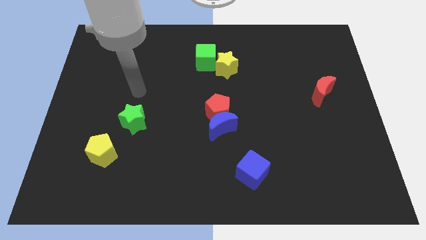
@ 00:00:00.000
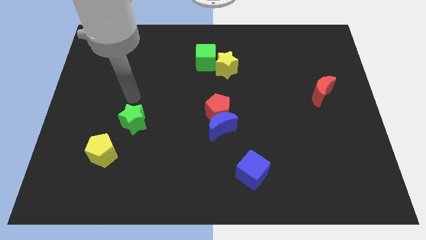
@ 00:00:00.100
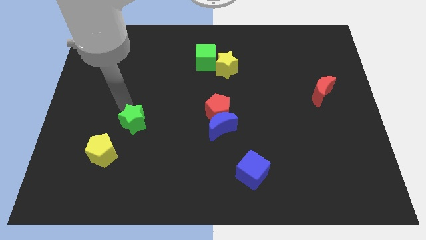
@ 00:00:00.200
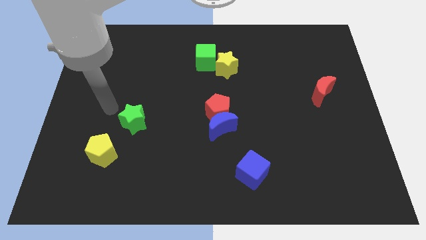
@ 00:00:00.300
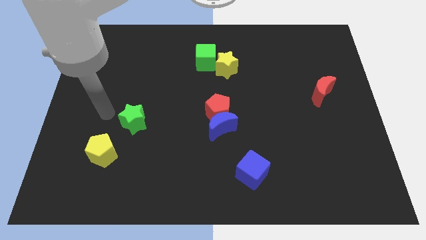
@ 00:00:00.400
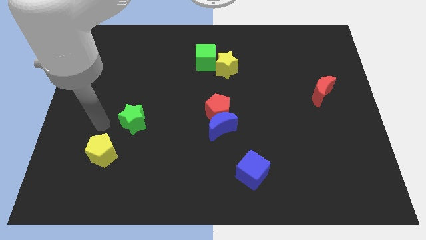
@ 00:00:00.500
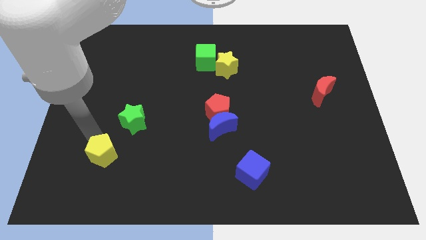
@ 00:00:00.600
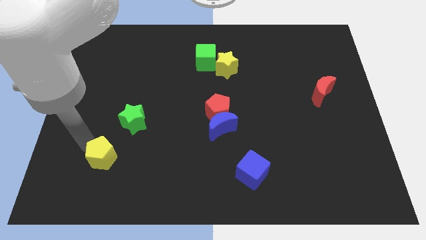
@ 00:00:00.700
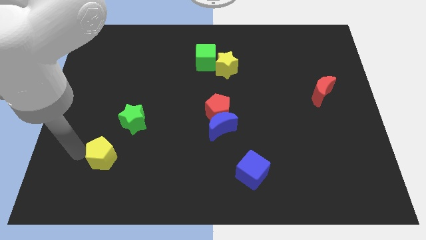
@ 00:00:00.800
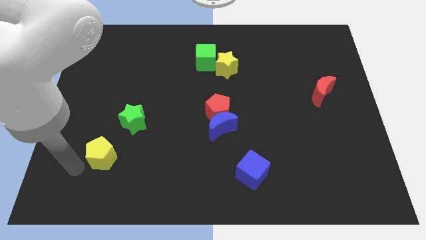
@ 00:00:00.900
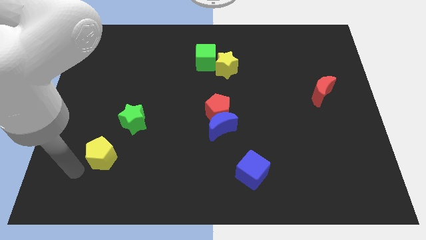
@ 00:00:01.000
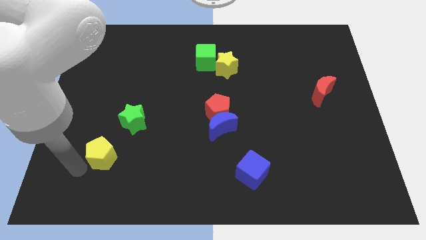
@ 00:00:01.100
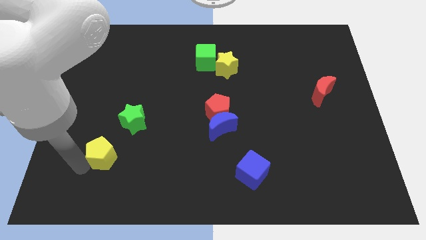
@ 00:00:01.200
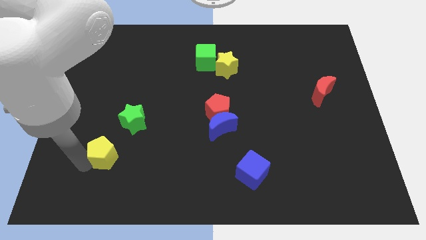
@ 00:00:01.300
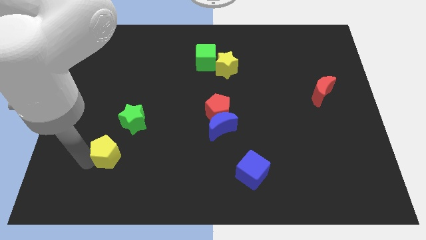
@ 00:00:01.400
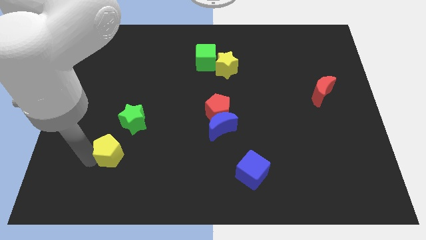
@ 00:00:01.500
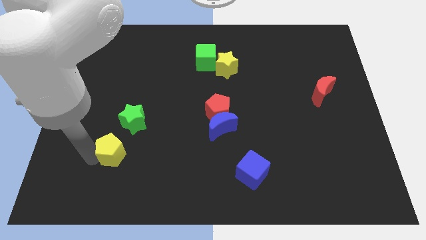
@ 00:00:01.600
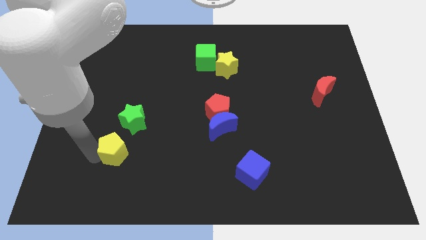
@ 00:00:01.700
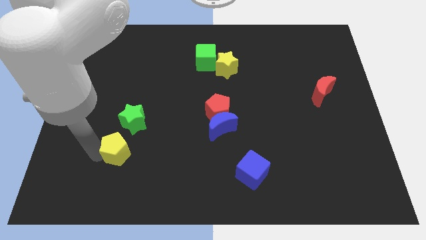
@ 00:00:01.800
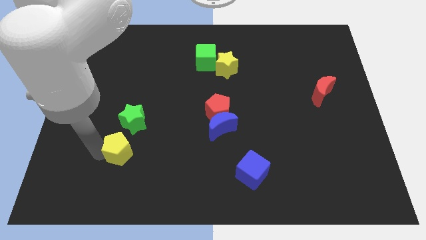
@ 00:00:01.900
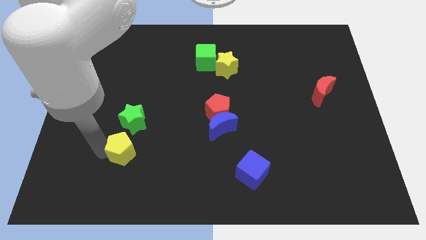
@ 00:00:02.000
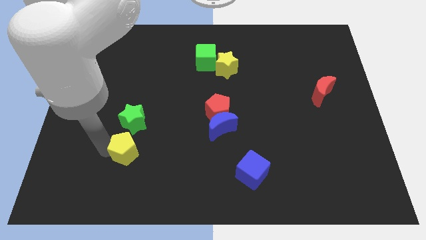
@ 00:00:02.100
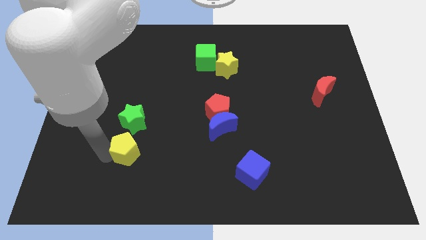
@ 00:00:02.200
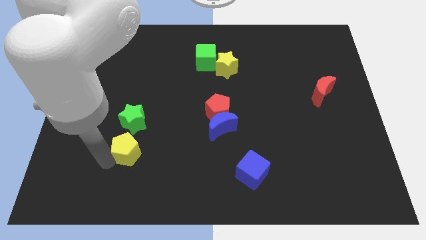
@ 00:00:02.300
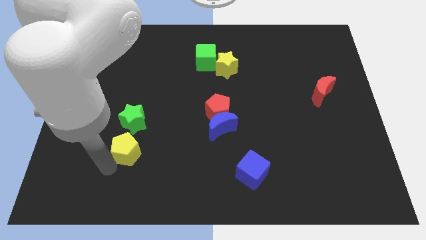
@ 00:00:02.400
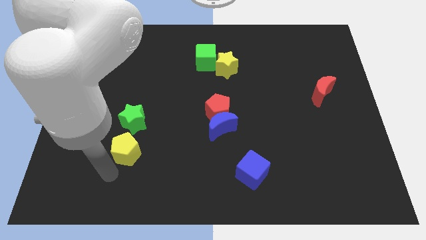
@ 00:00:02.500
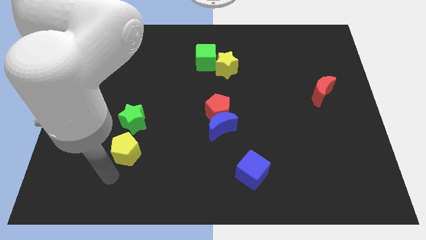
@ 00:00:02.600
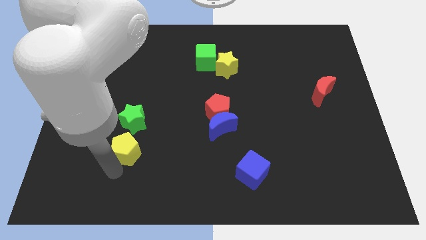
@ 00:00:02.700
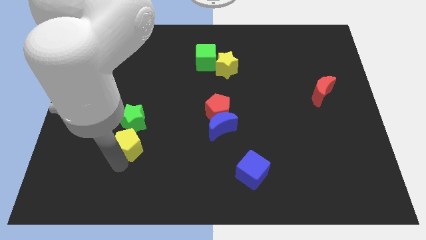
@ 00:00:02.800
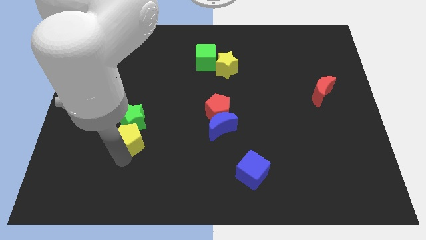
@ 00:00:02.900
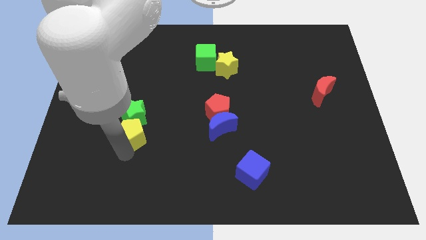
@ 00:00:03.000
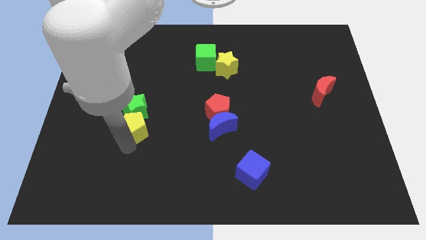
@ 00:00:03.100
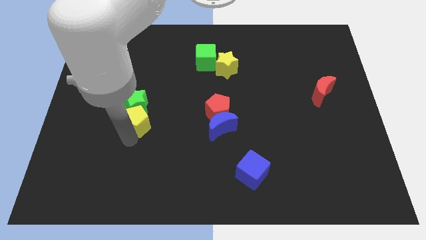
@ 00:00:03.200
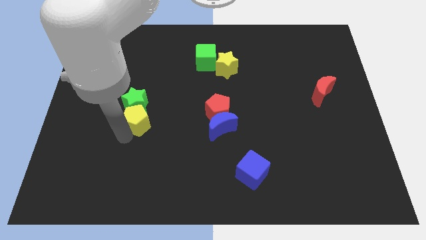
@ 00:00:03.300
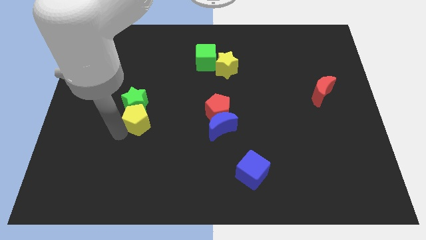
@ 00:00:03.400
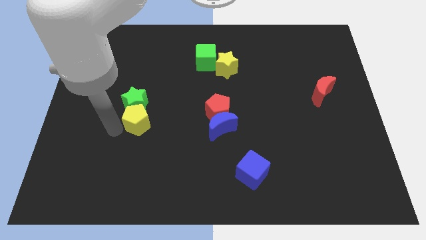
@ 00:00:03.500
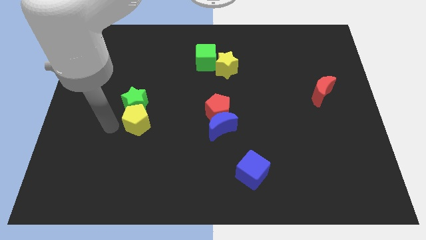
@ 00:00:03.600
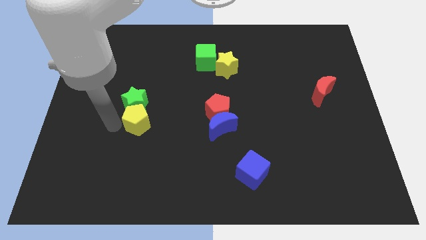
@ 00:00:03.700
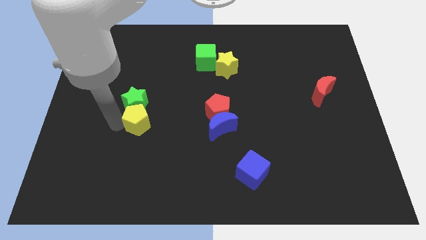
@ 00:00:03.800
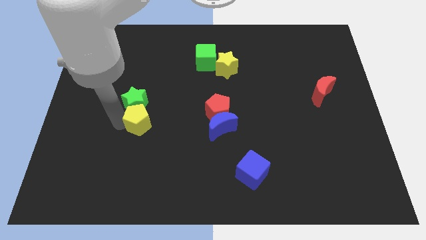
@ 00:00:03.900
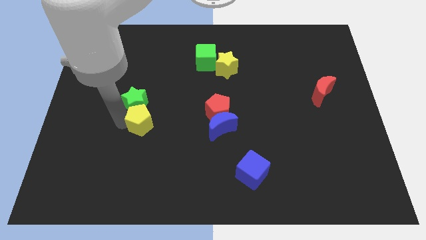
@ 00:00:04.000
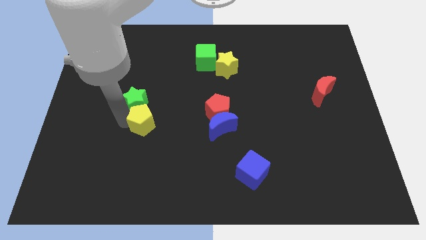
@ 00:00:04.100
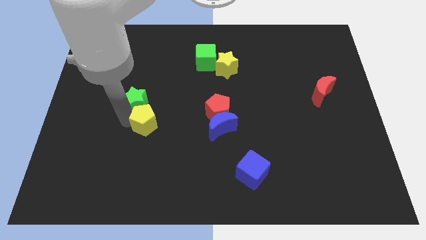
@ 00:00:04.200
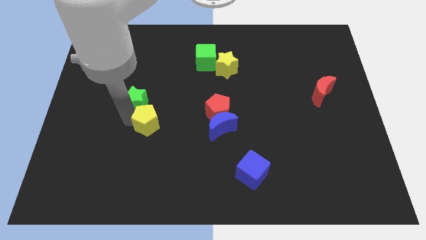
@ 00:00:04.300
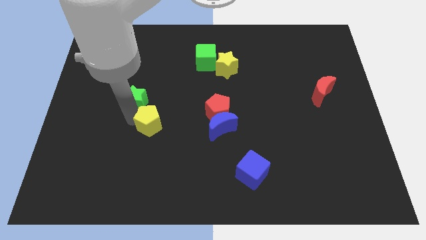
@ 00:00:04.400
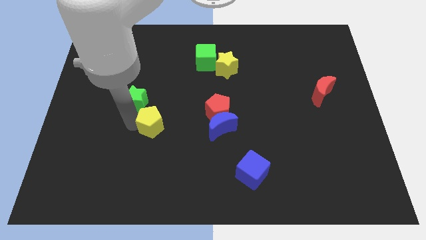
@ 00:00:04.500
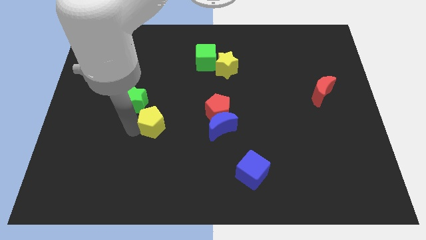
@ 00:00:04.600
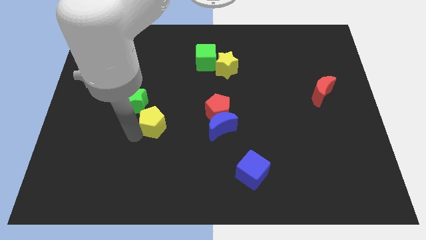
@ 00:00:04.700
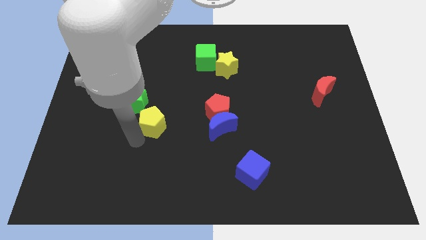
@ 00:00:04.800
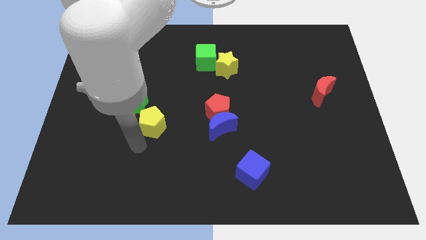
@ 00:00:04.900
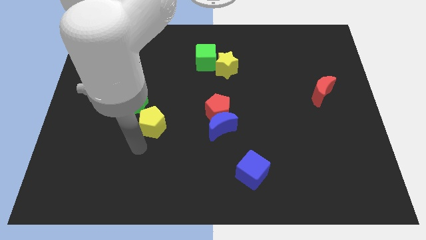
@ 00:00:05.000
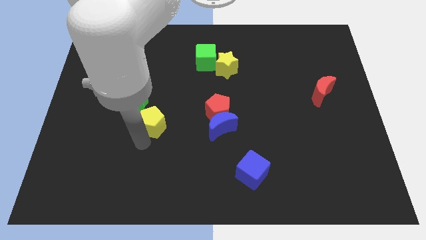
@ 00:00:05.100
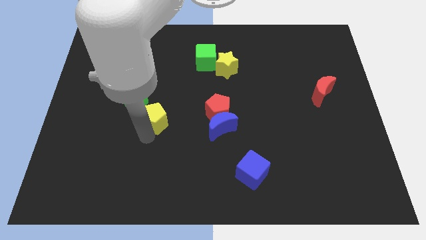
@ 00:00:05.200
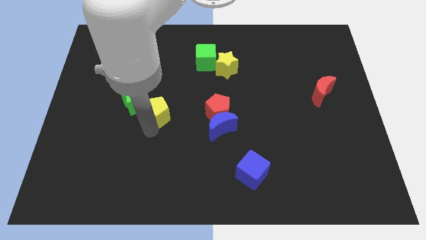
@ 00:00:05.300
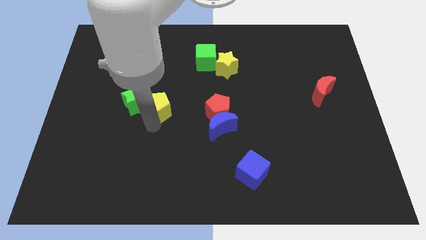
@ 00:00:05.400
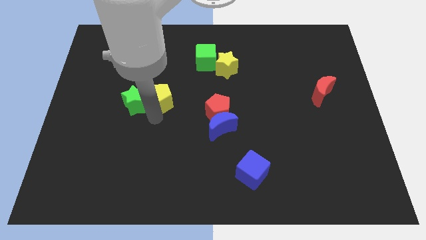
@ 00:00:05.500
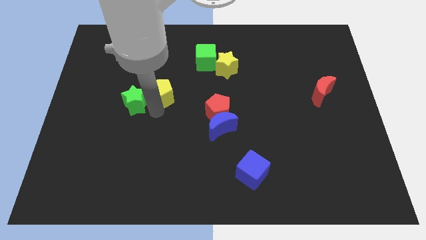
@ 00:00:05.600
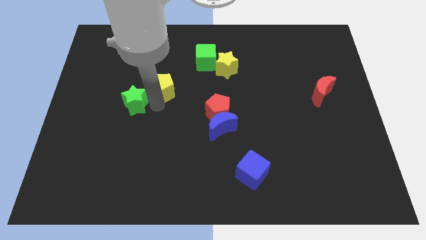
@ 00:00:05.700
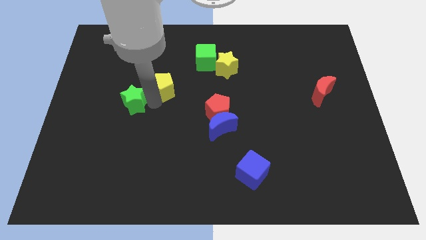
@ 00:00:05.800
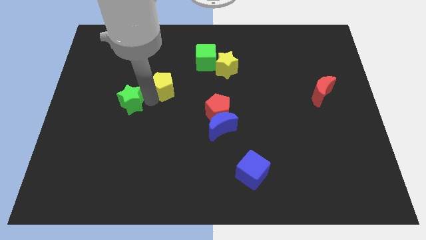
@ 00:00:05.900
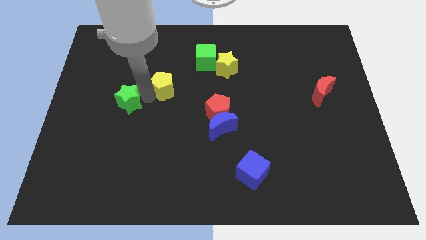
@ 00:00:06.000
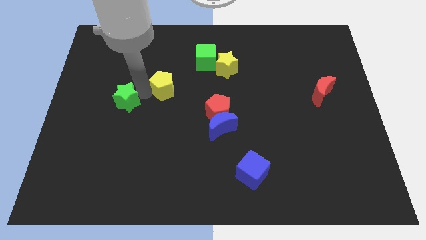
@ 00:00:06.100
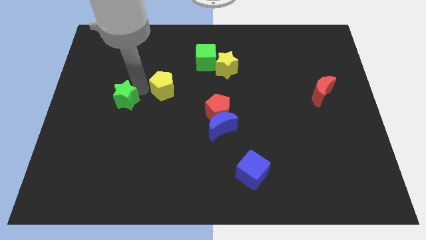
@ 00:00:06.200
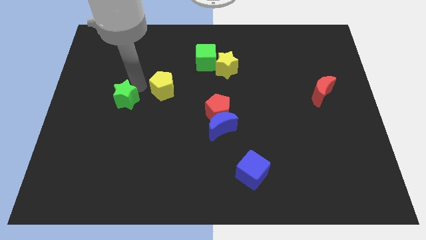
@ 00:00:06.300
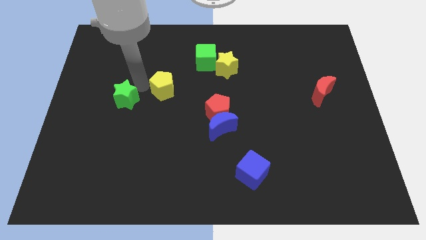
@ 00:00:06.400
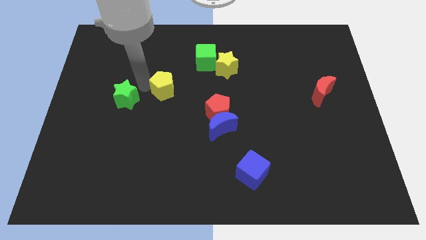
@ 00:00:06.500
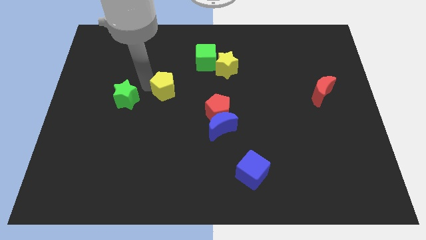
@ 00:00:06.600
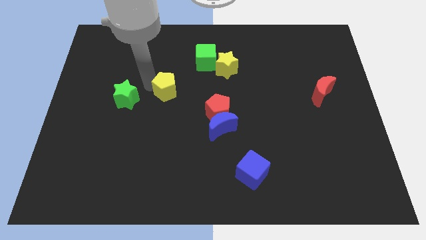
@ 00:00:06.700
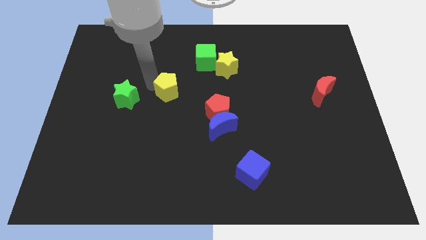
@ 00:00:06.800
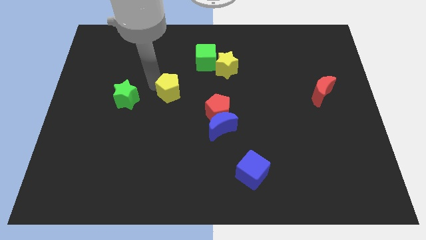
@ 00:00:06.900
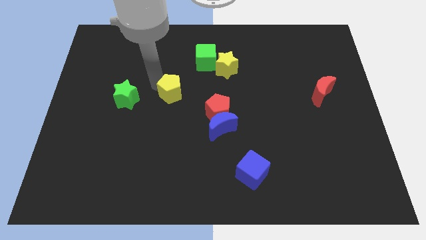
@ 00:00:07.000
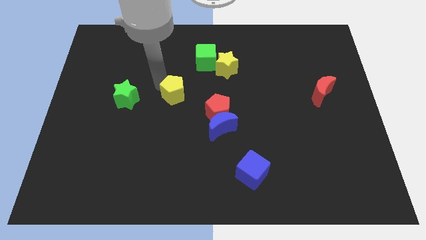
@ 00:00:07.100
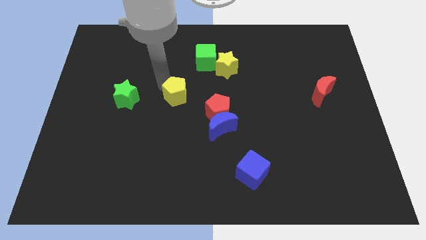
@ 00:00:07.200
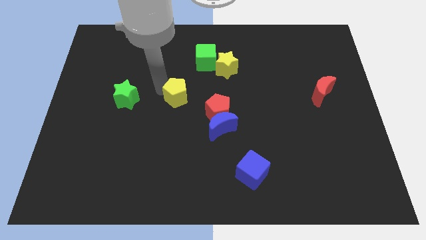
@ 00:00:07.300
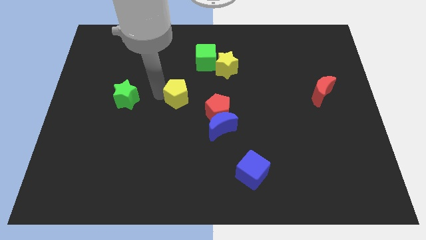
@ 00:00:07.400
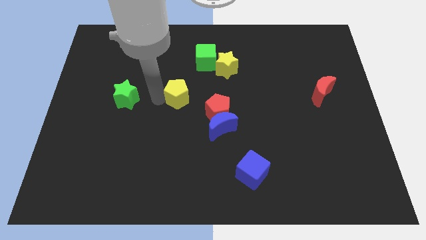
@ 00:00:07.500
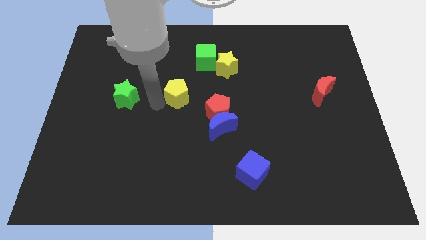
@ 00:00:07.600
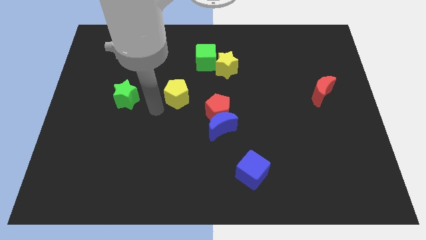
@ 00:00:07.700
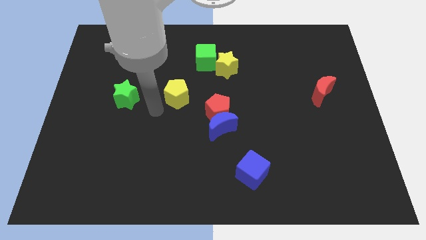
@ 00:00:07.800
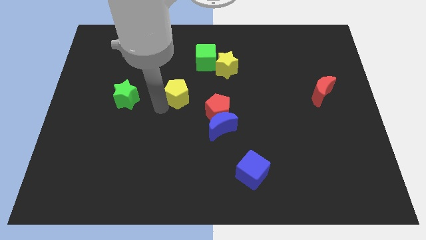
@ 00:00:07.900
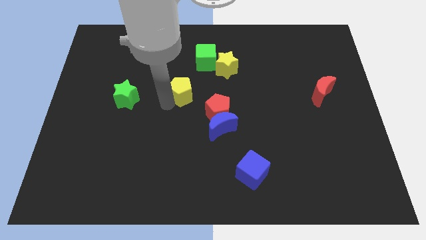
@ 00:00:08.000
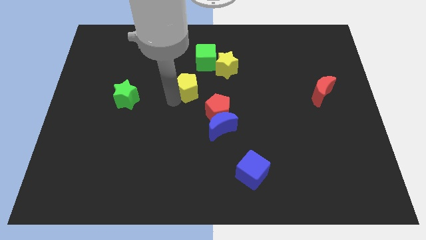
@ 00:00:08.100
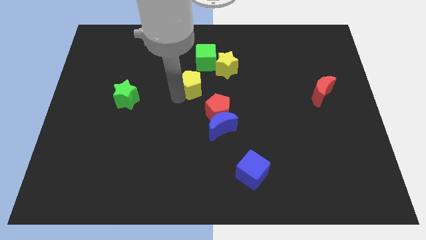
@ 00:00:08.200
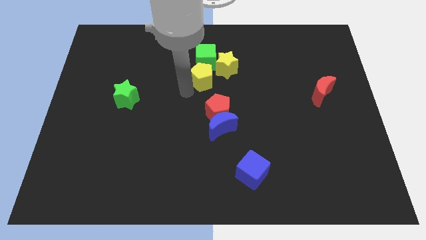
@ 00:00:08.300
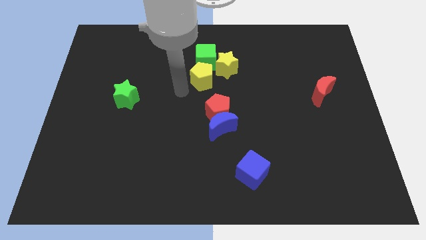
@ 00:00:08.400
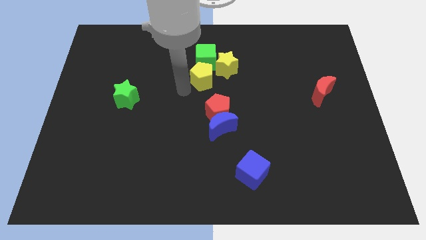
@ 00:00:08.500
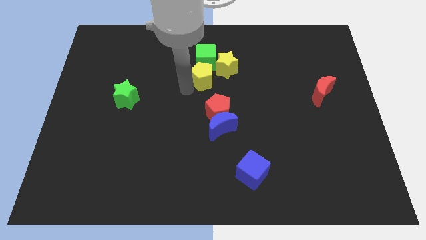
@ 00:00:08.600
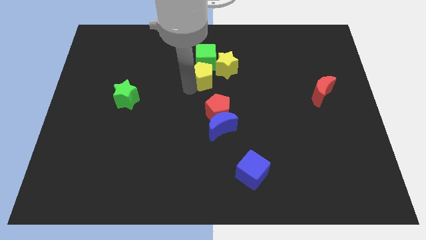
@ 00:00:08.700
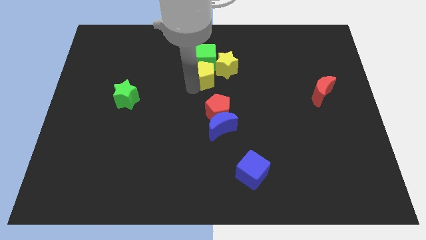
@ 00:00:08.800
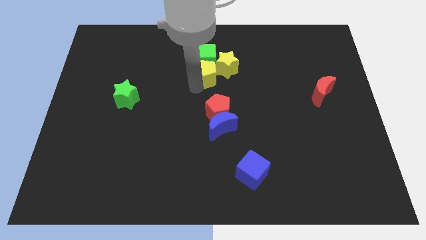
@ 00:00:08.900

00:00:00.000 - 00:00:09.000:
put the yellow pentagon towards the yellow star
